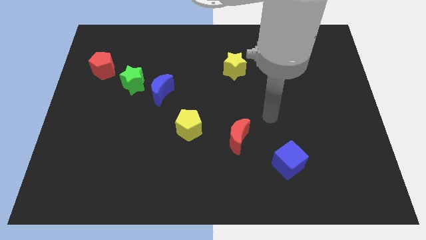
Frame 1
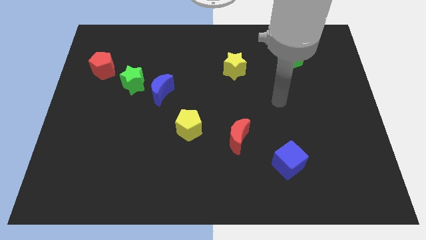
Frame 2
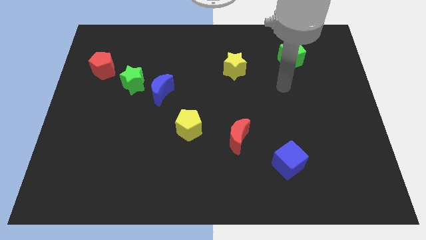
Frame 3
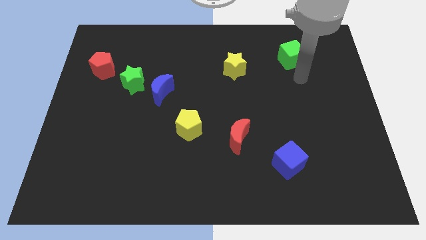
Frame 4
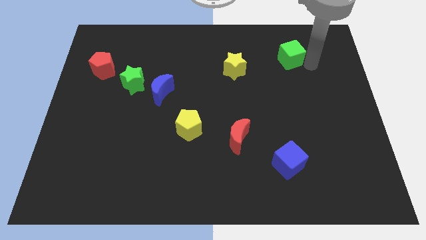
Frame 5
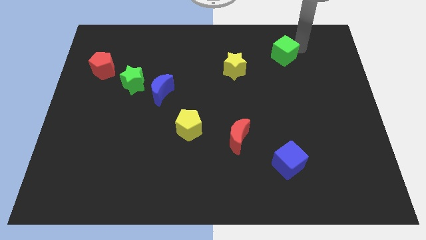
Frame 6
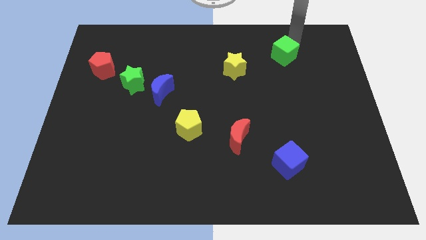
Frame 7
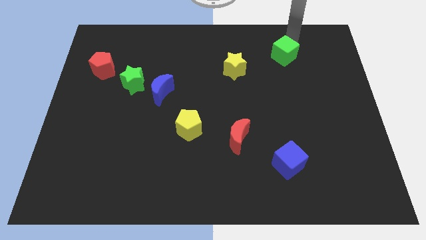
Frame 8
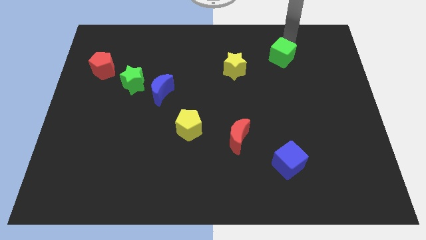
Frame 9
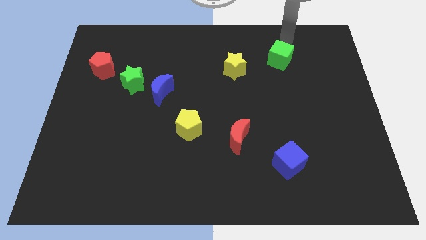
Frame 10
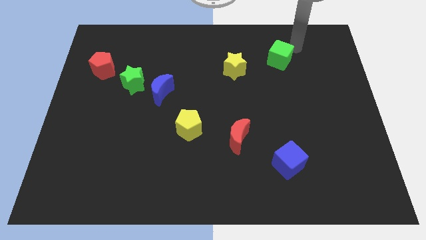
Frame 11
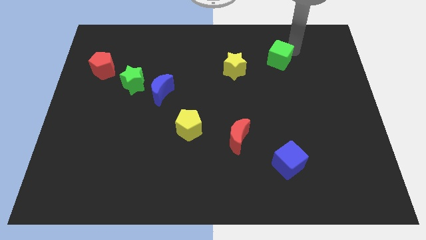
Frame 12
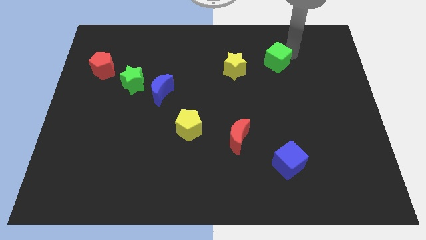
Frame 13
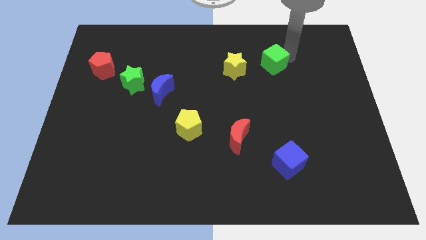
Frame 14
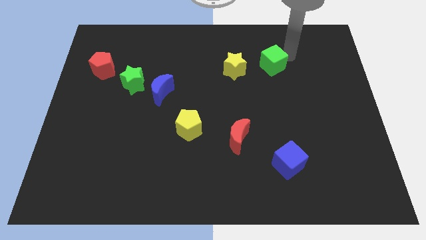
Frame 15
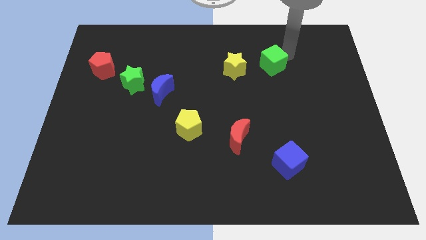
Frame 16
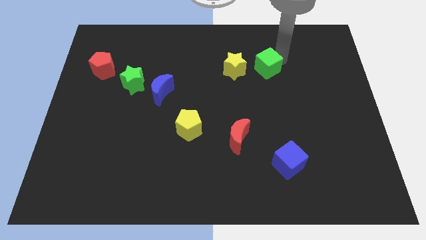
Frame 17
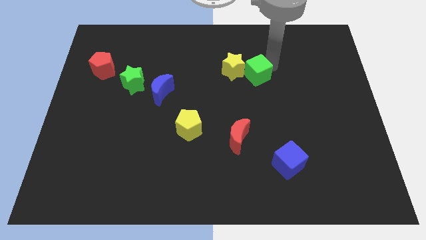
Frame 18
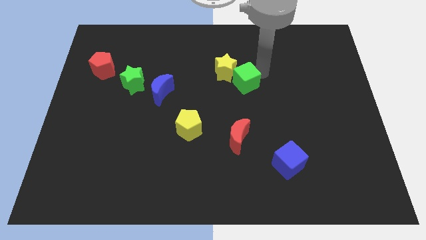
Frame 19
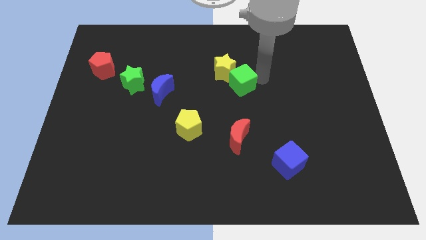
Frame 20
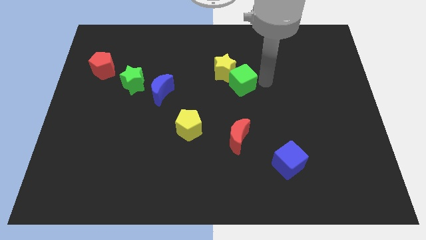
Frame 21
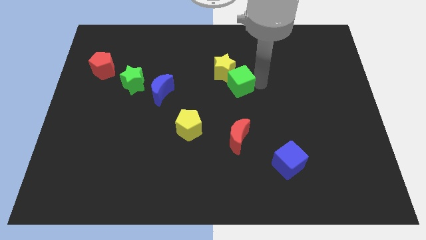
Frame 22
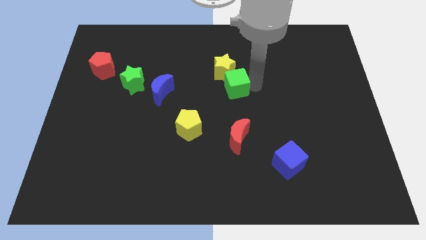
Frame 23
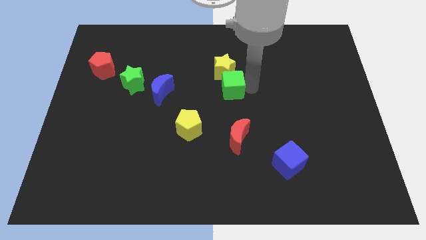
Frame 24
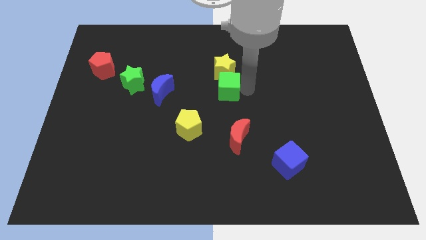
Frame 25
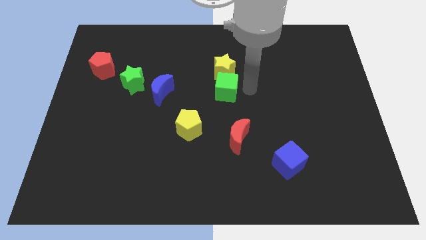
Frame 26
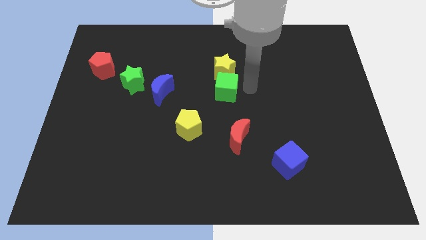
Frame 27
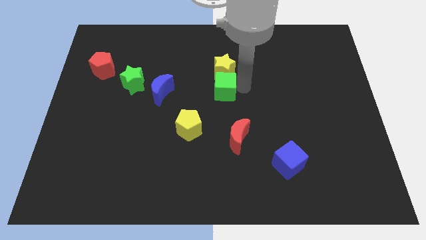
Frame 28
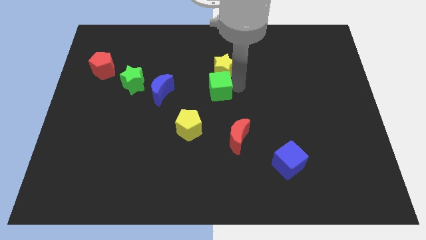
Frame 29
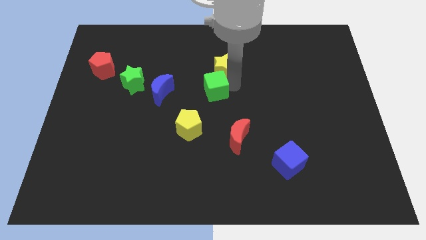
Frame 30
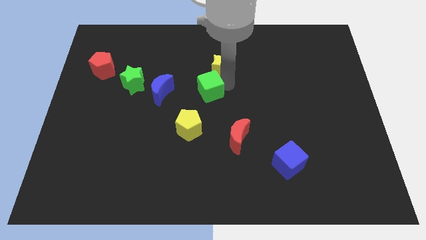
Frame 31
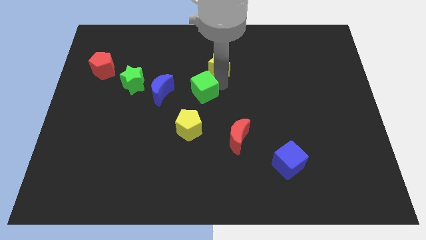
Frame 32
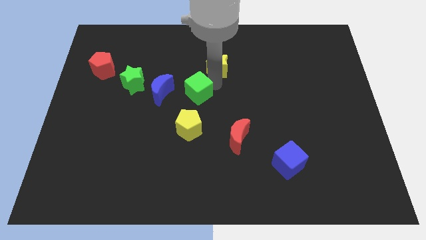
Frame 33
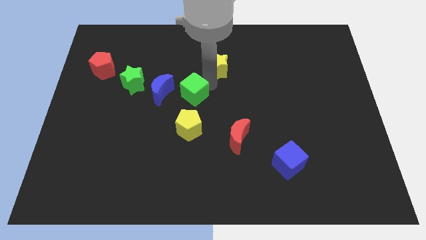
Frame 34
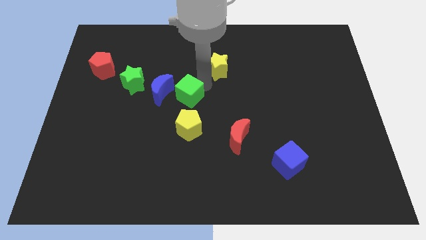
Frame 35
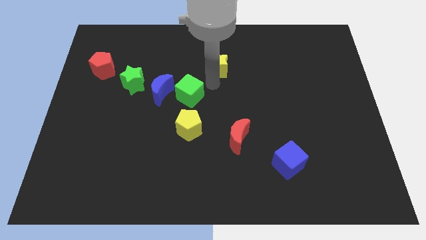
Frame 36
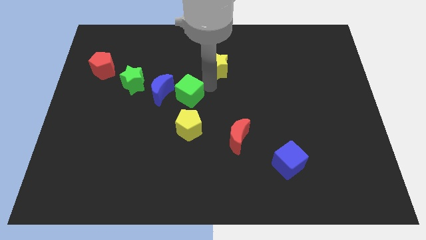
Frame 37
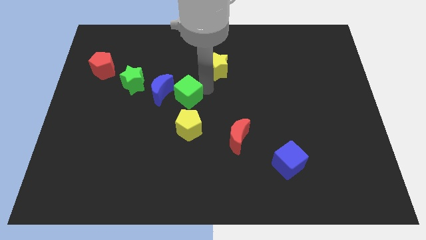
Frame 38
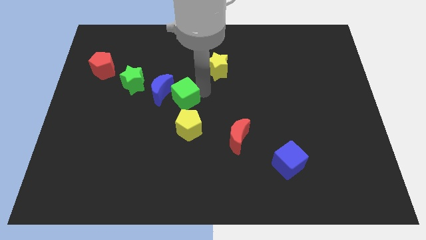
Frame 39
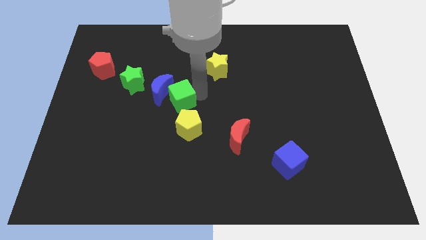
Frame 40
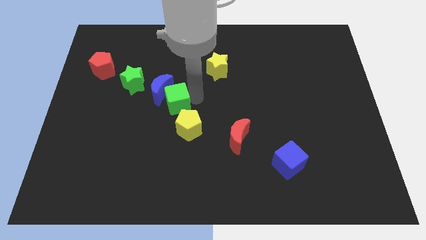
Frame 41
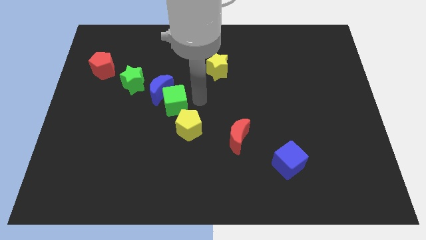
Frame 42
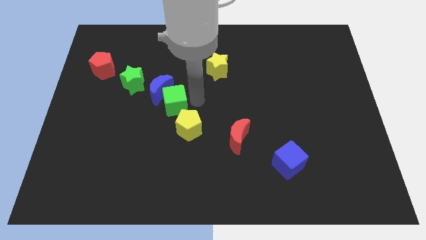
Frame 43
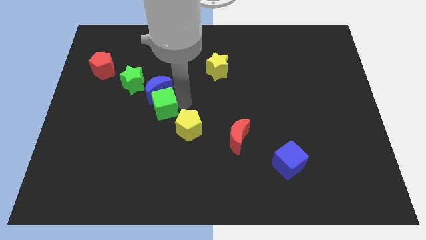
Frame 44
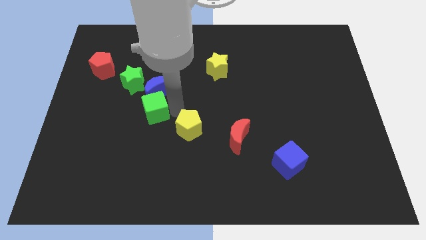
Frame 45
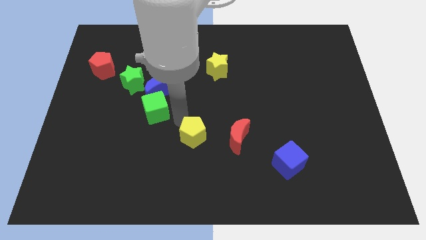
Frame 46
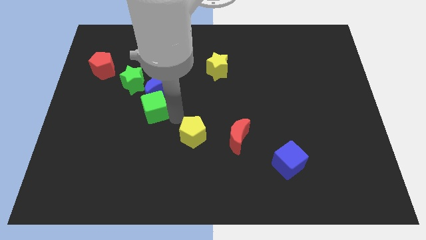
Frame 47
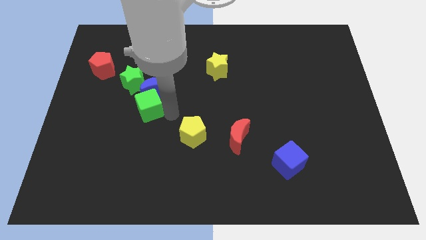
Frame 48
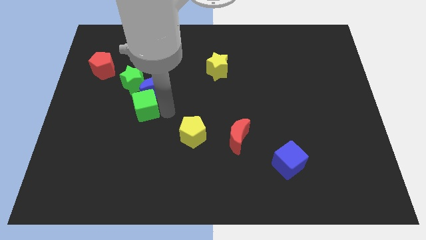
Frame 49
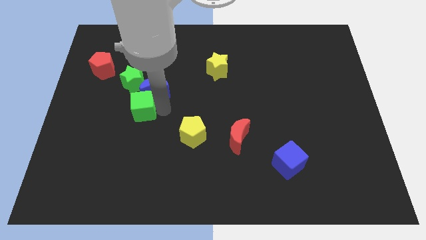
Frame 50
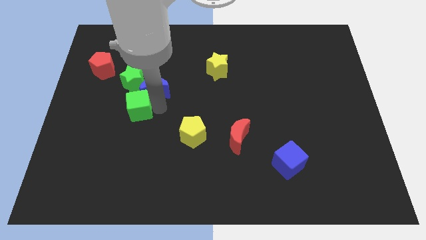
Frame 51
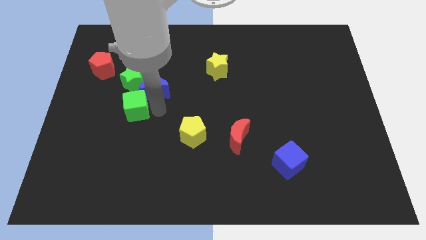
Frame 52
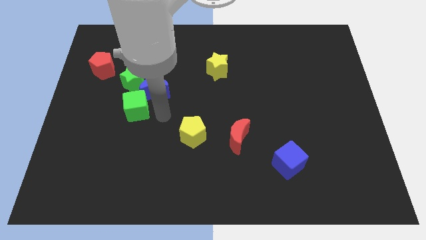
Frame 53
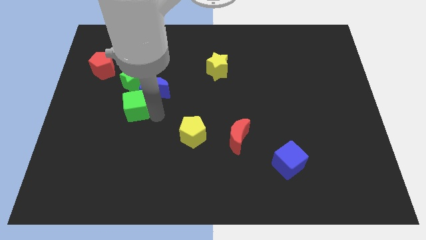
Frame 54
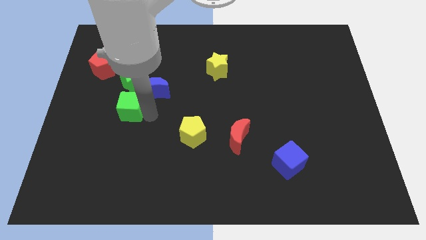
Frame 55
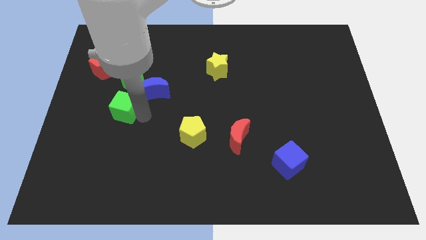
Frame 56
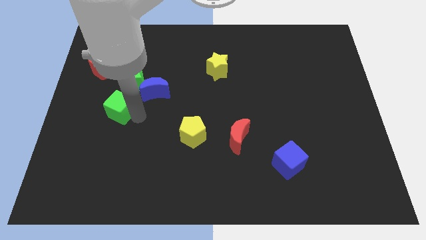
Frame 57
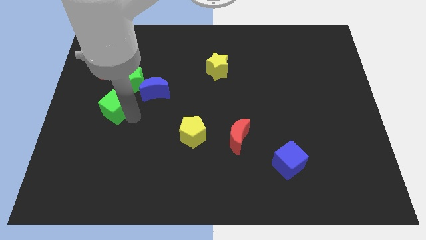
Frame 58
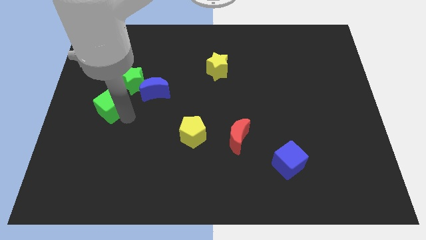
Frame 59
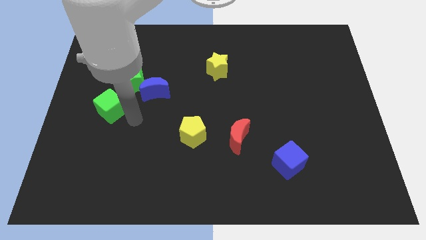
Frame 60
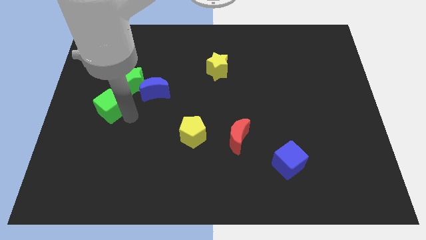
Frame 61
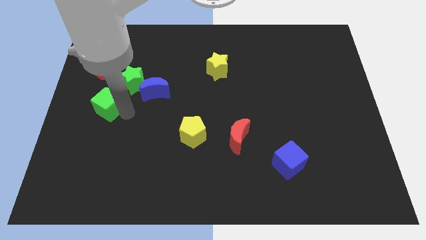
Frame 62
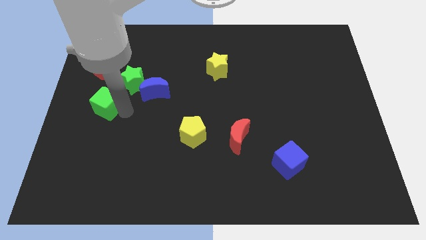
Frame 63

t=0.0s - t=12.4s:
slide the green cube to the left side of the board

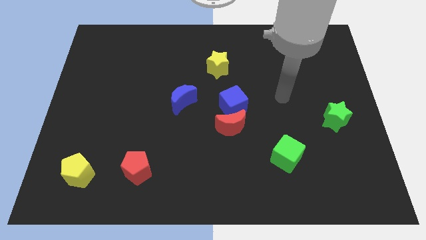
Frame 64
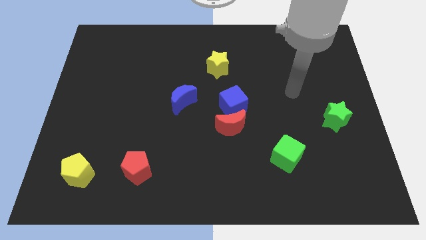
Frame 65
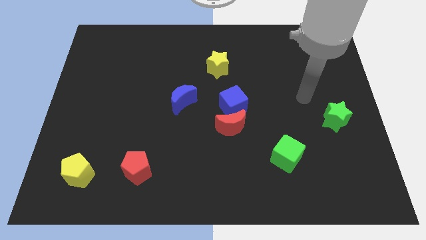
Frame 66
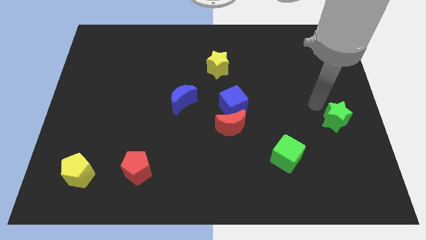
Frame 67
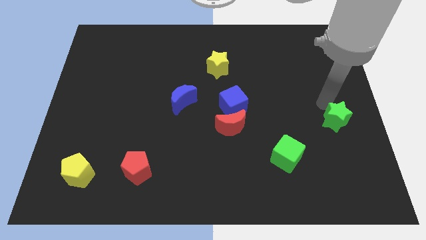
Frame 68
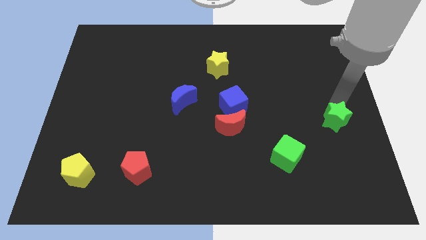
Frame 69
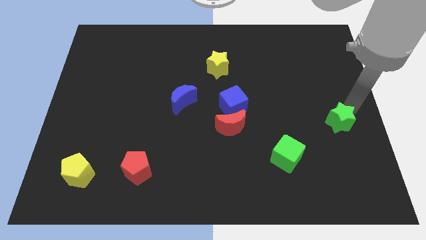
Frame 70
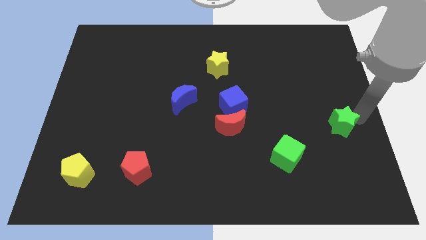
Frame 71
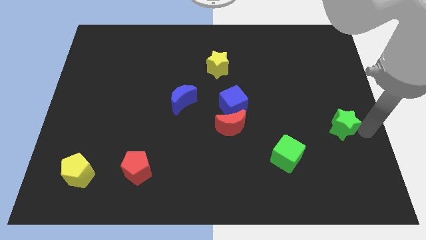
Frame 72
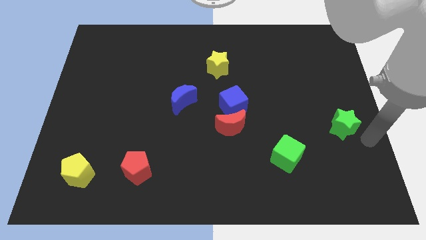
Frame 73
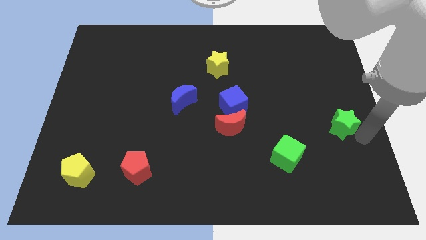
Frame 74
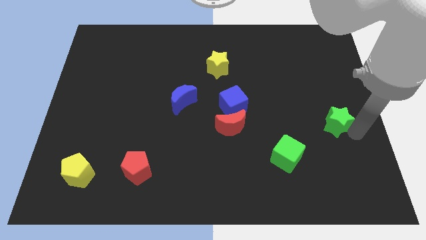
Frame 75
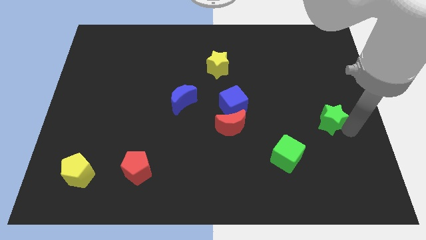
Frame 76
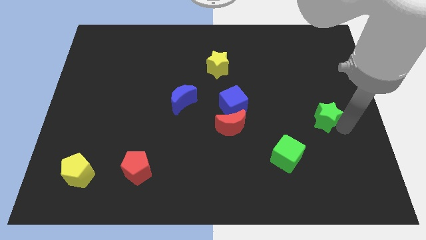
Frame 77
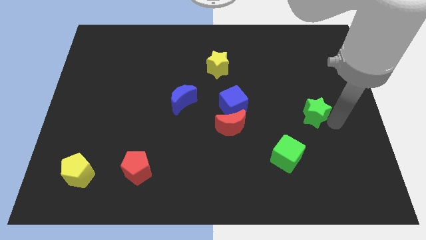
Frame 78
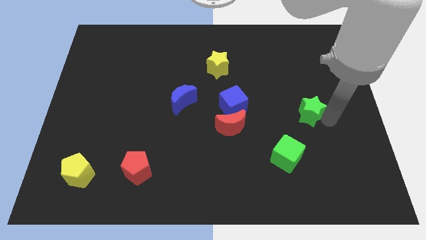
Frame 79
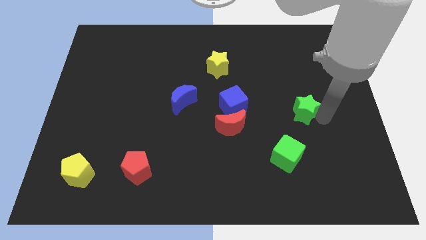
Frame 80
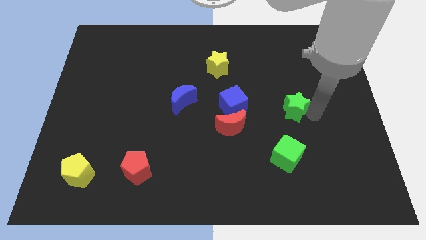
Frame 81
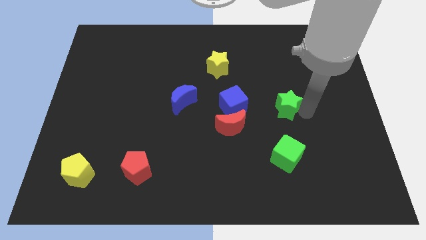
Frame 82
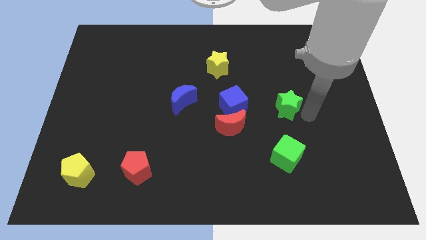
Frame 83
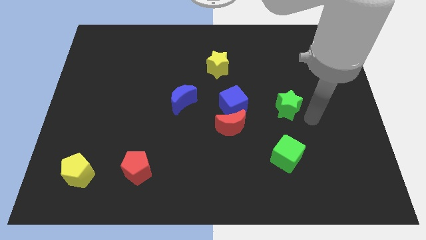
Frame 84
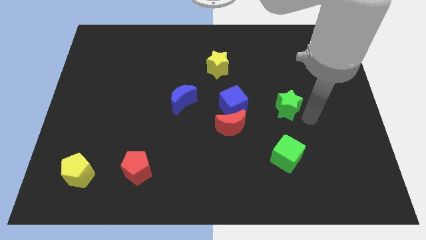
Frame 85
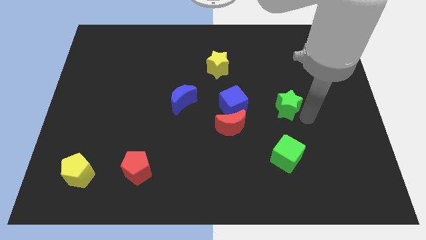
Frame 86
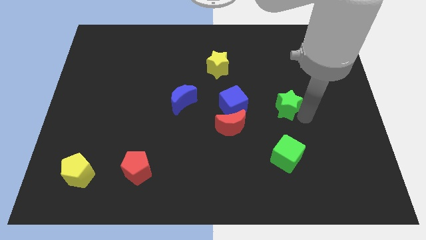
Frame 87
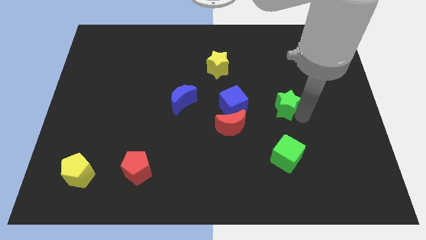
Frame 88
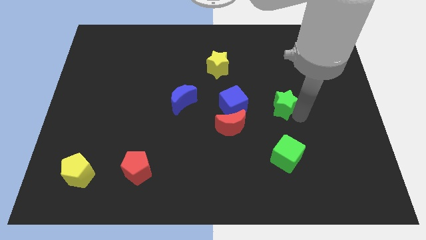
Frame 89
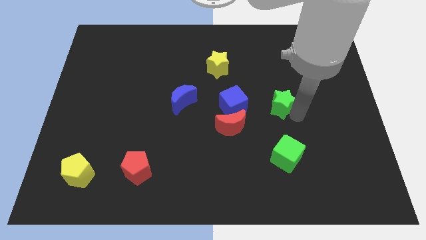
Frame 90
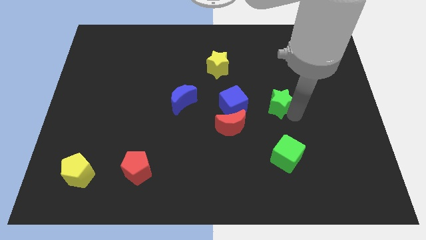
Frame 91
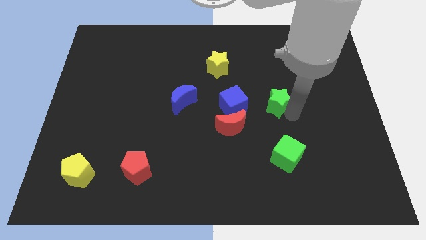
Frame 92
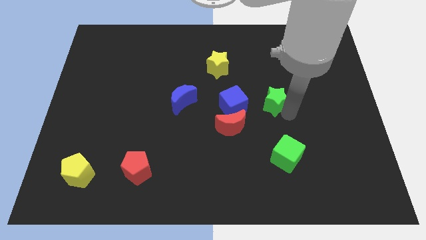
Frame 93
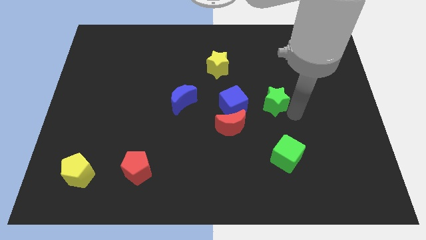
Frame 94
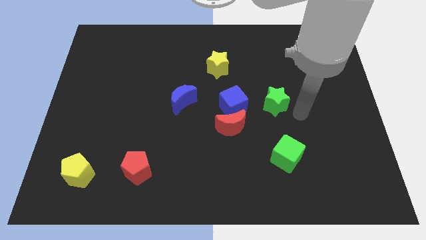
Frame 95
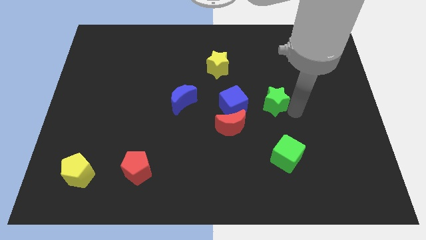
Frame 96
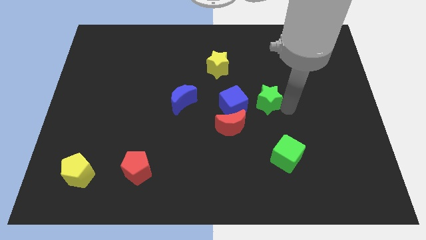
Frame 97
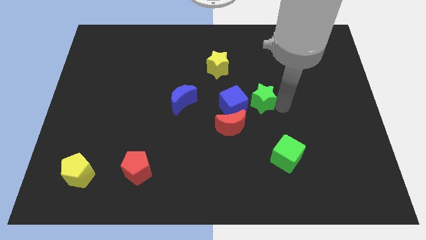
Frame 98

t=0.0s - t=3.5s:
slide the green star to the center of the board
